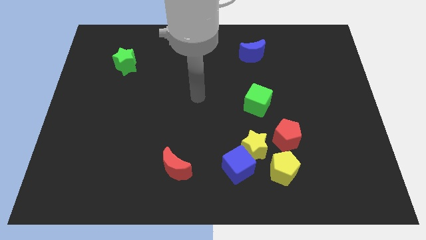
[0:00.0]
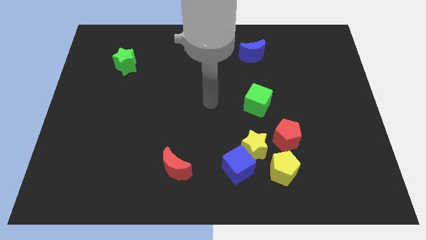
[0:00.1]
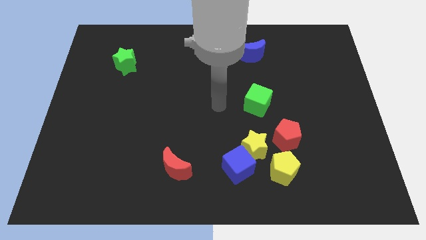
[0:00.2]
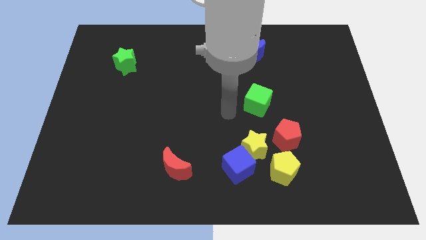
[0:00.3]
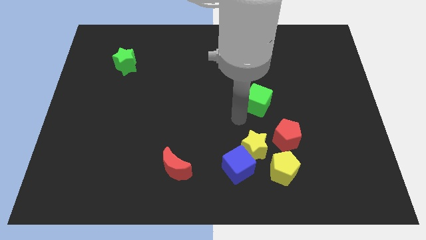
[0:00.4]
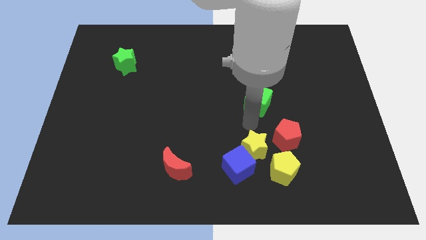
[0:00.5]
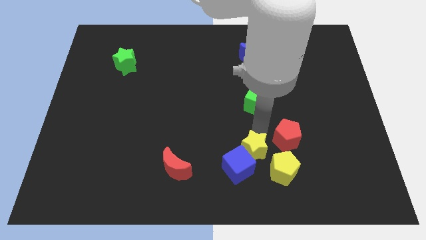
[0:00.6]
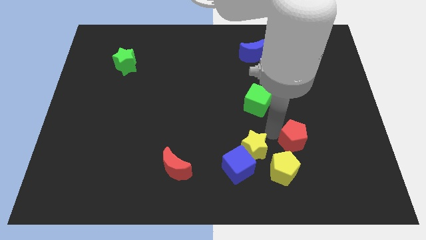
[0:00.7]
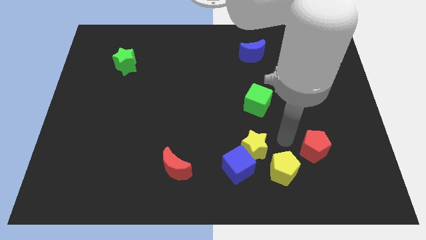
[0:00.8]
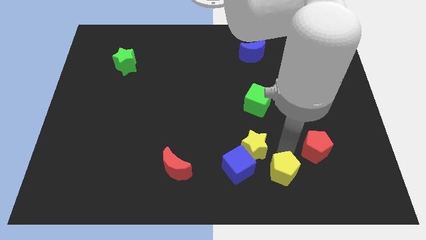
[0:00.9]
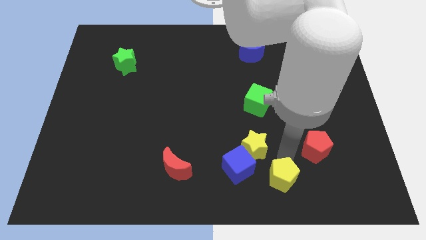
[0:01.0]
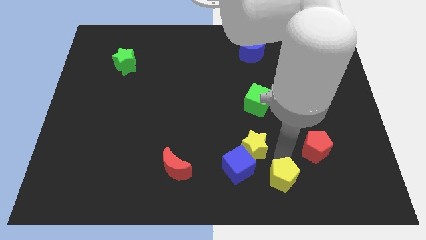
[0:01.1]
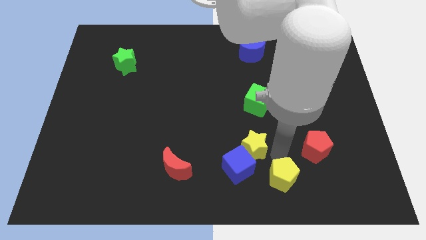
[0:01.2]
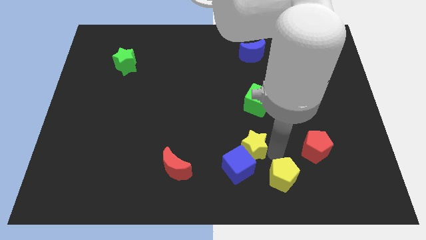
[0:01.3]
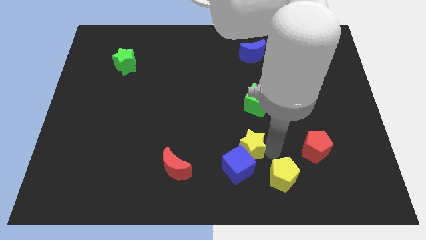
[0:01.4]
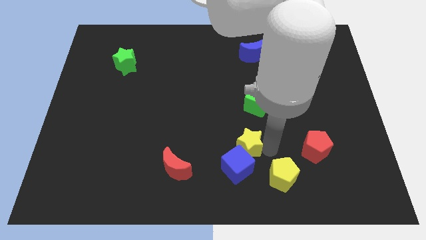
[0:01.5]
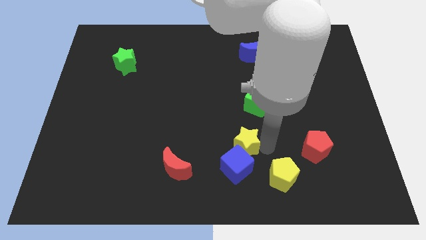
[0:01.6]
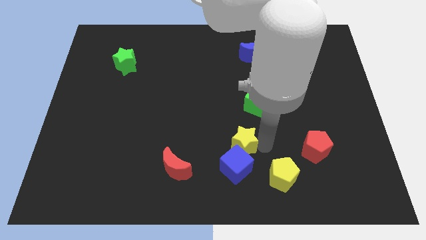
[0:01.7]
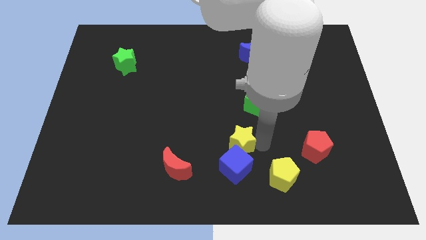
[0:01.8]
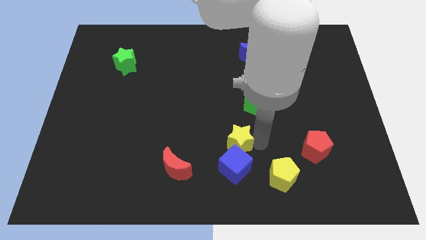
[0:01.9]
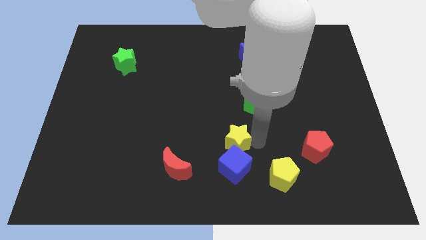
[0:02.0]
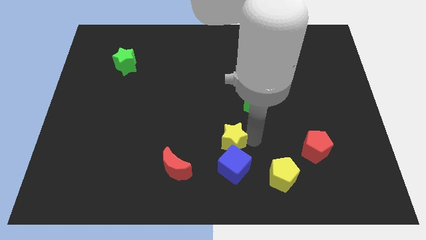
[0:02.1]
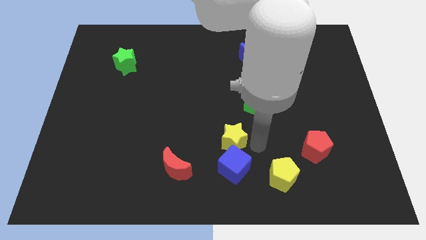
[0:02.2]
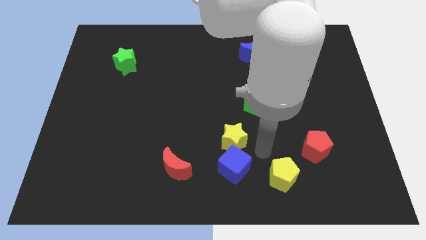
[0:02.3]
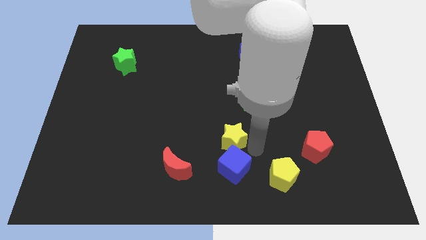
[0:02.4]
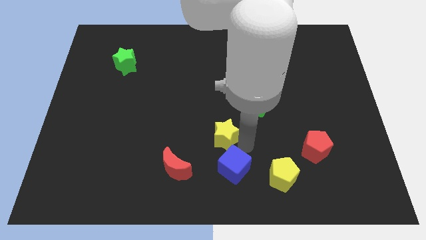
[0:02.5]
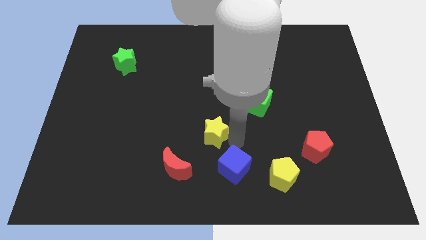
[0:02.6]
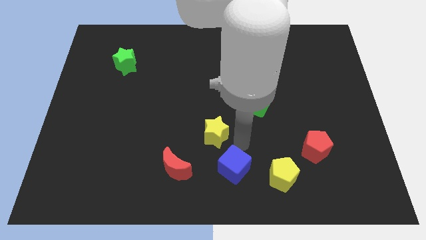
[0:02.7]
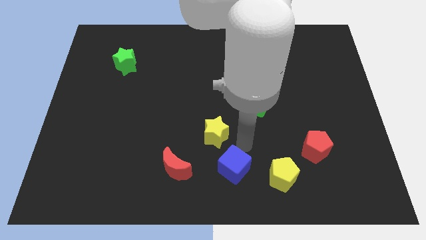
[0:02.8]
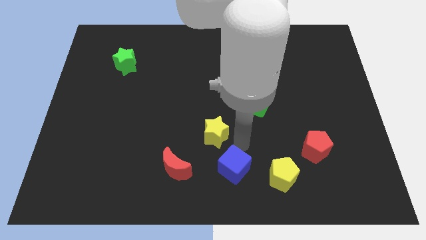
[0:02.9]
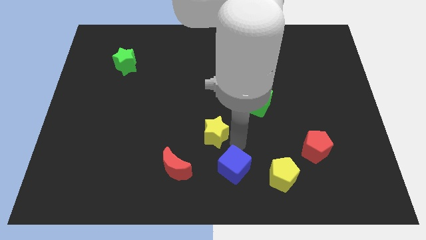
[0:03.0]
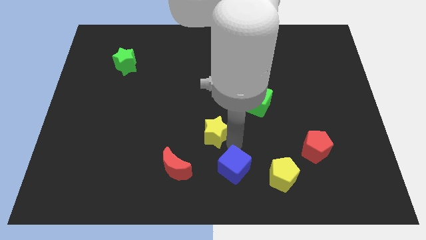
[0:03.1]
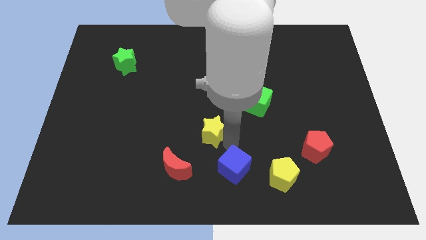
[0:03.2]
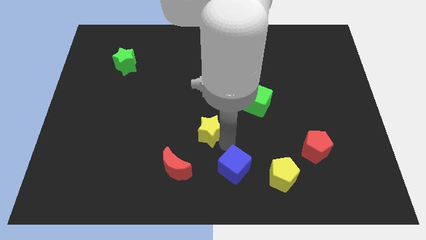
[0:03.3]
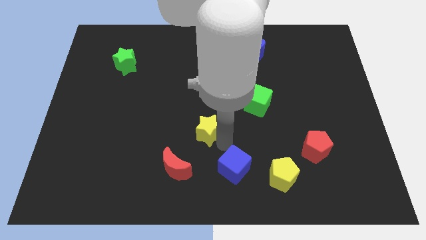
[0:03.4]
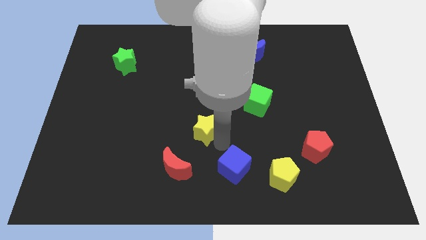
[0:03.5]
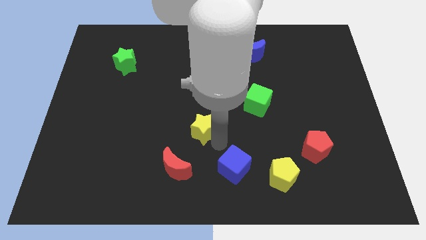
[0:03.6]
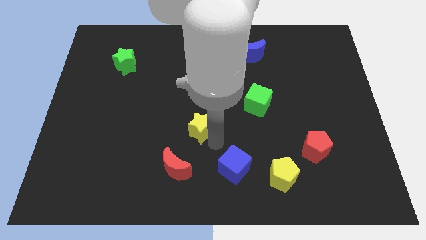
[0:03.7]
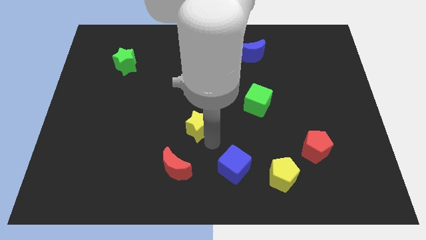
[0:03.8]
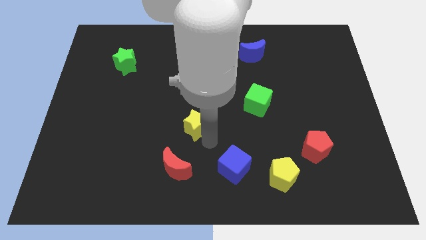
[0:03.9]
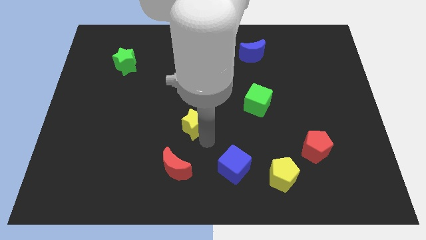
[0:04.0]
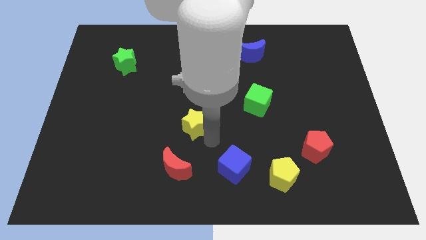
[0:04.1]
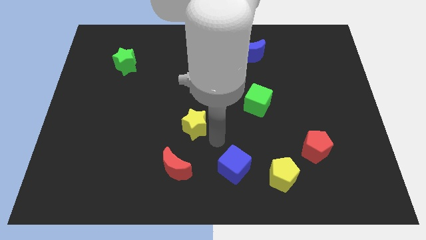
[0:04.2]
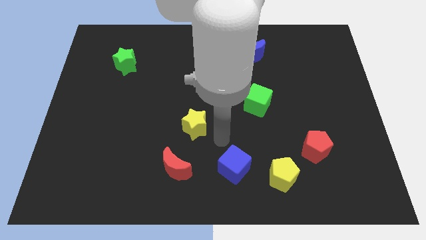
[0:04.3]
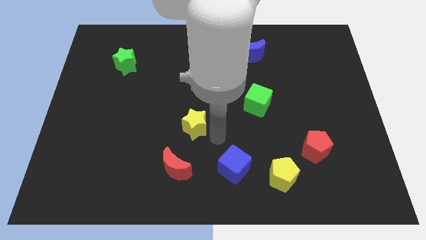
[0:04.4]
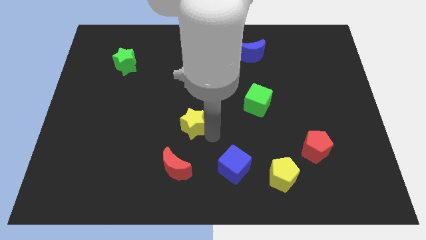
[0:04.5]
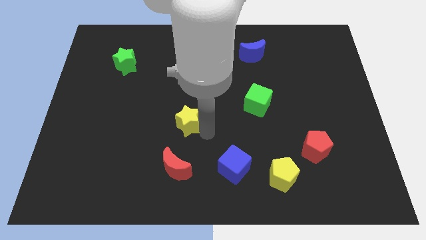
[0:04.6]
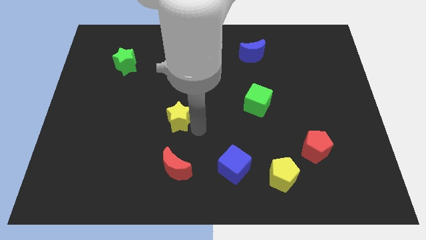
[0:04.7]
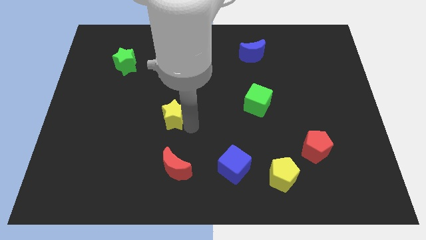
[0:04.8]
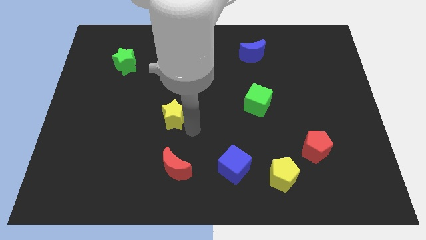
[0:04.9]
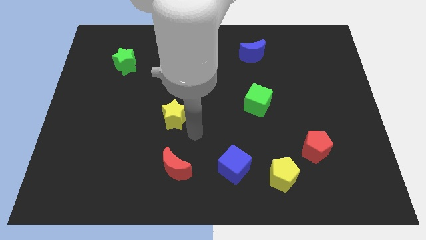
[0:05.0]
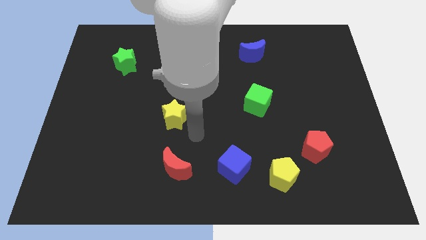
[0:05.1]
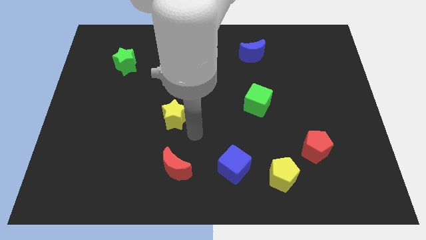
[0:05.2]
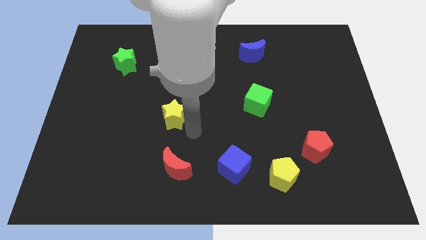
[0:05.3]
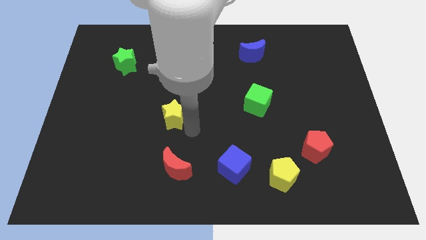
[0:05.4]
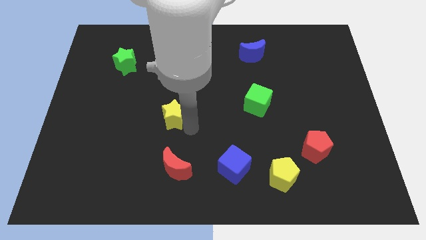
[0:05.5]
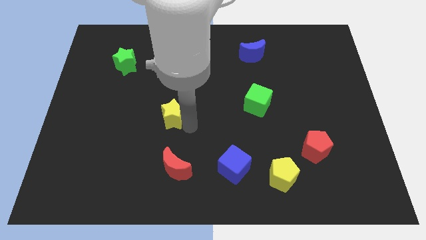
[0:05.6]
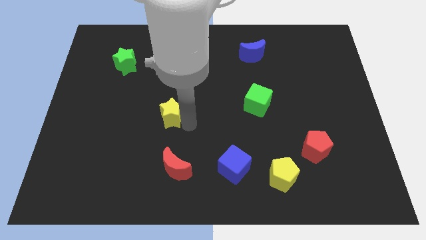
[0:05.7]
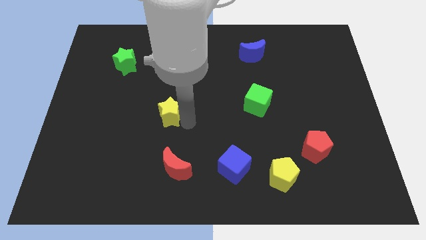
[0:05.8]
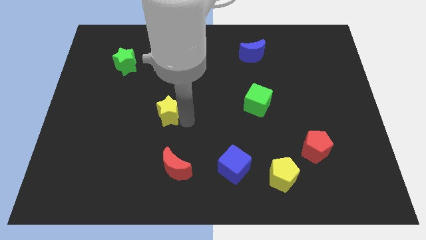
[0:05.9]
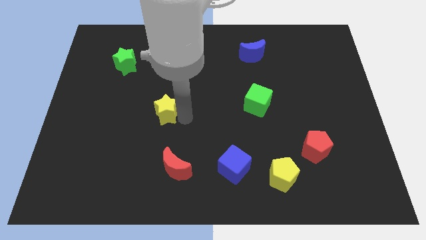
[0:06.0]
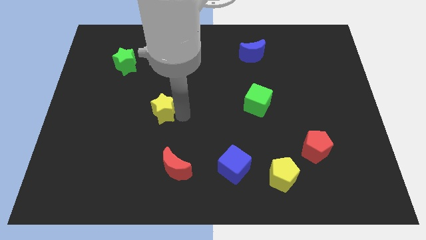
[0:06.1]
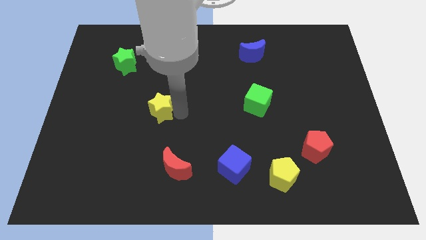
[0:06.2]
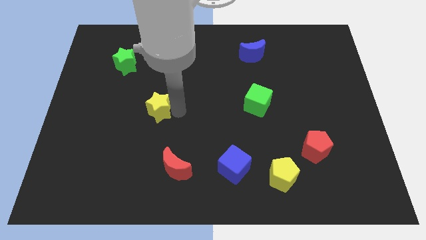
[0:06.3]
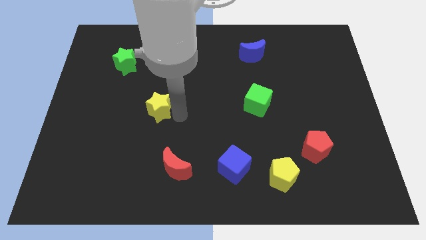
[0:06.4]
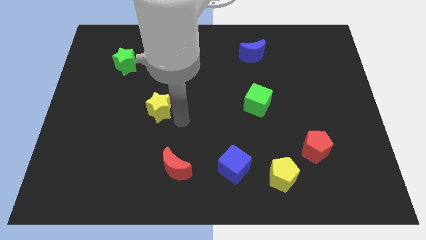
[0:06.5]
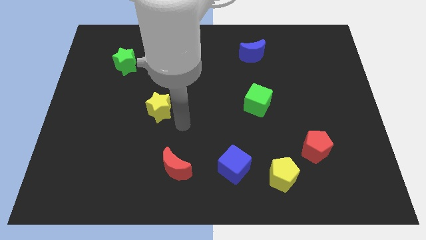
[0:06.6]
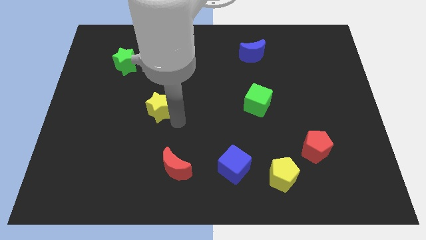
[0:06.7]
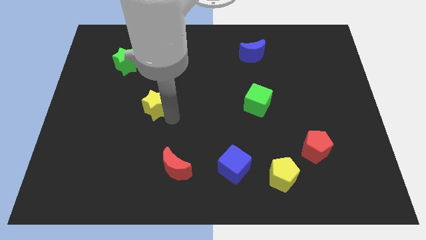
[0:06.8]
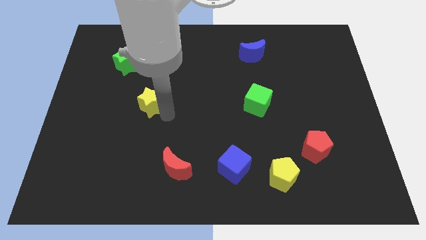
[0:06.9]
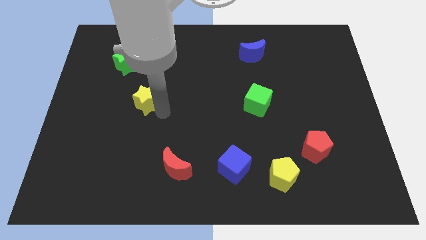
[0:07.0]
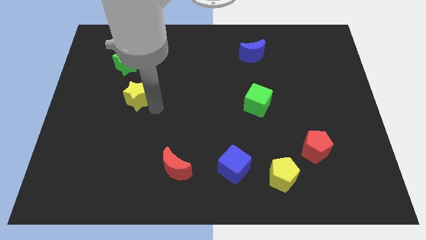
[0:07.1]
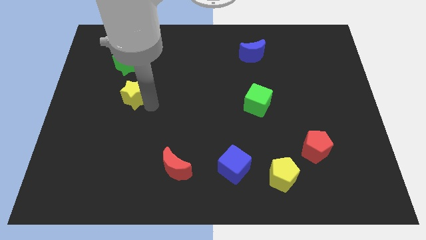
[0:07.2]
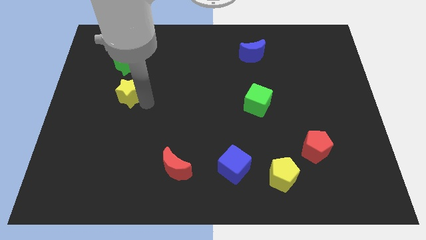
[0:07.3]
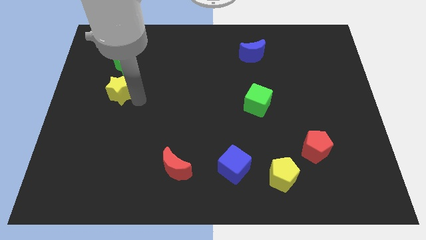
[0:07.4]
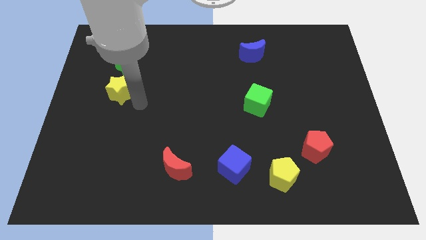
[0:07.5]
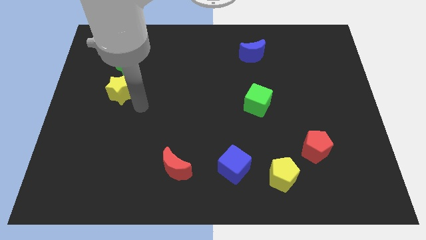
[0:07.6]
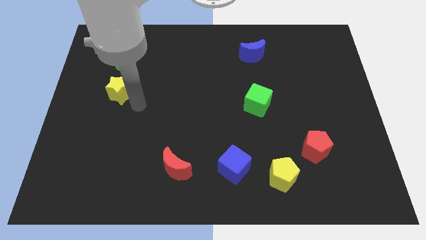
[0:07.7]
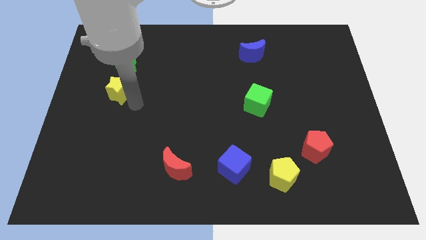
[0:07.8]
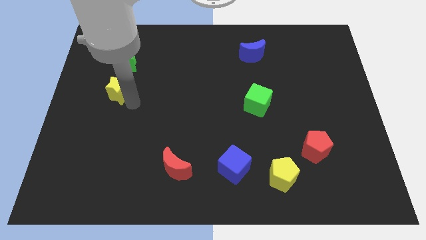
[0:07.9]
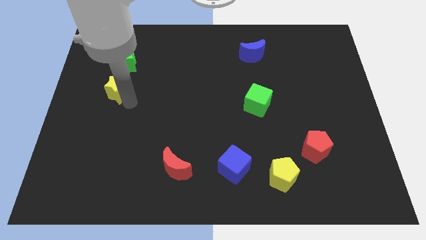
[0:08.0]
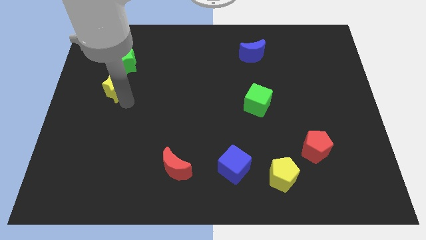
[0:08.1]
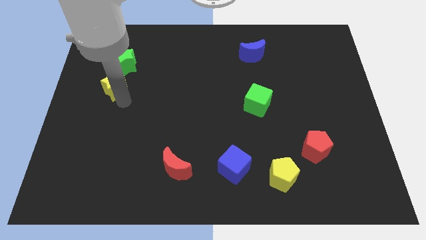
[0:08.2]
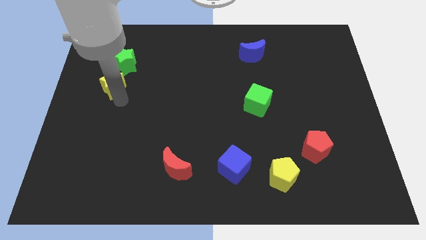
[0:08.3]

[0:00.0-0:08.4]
push the yellow star to the bottom left side of the green star
